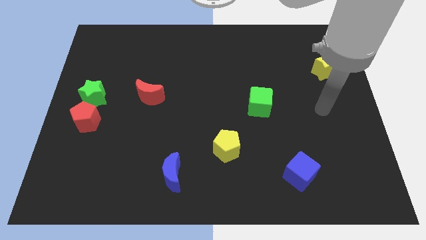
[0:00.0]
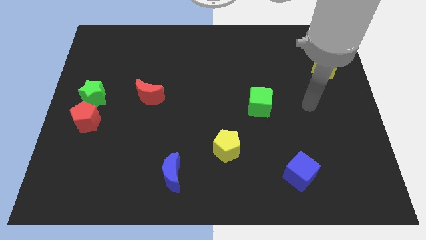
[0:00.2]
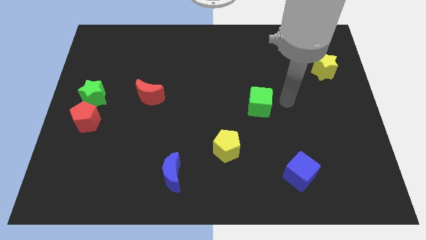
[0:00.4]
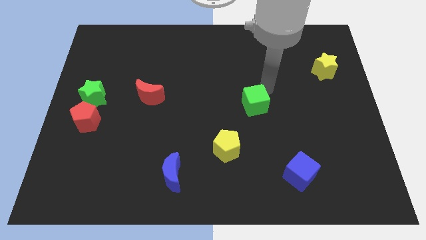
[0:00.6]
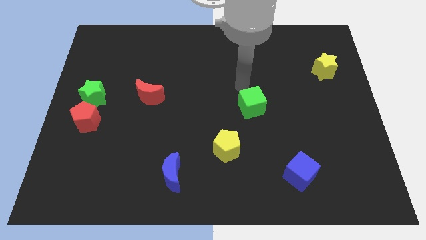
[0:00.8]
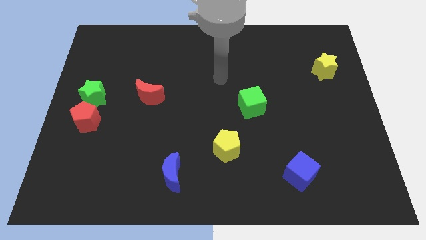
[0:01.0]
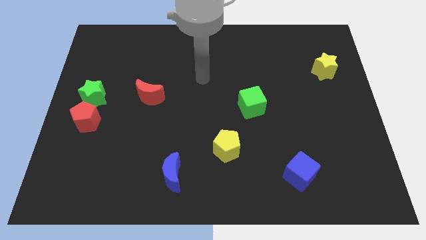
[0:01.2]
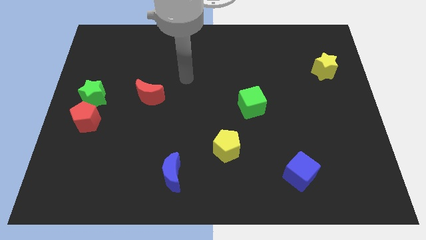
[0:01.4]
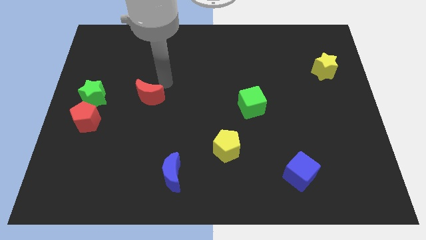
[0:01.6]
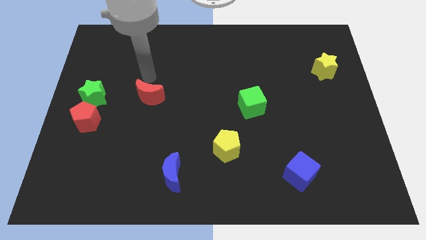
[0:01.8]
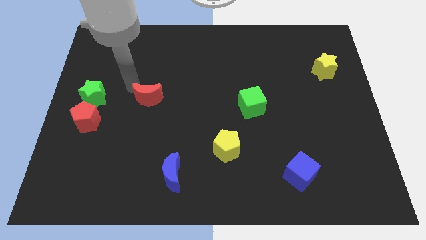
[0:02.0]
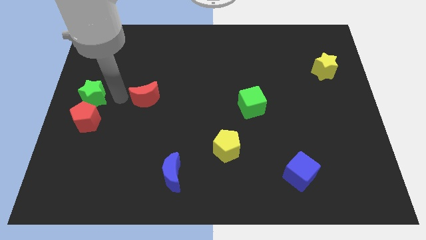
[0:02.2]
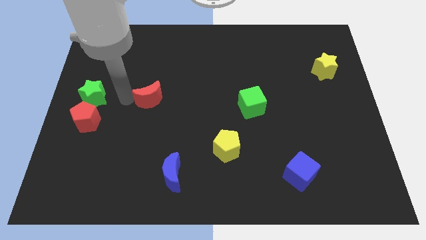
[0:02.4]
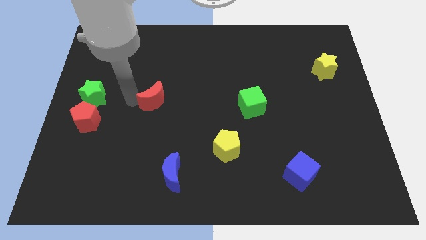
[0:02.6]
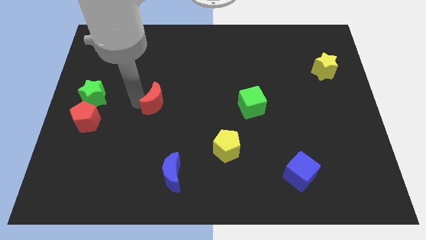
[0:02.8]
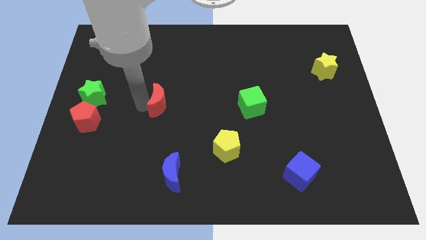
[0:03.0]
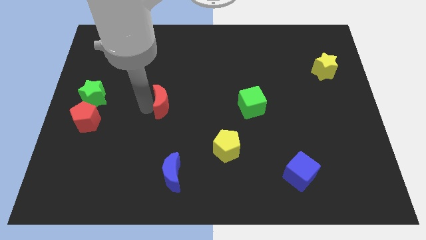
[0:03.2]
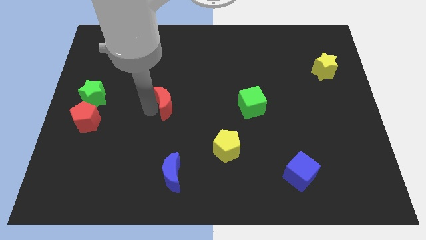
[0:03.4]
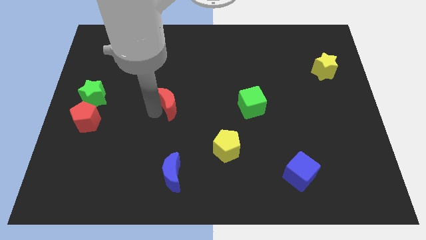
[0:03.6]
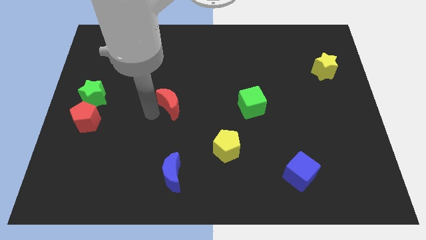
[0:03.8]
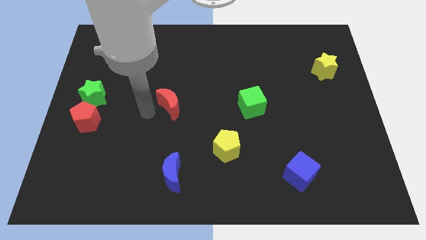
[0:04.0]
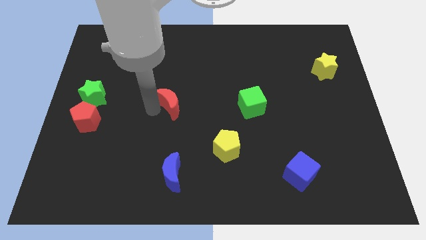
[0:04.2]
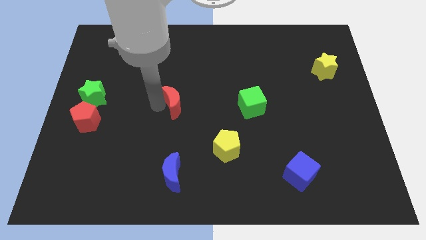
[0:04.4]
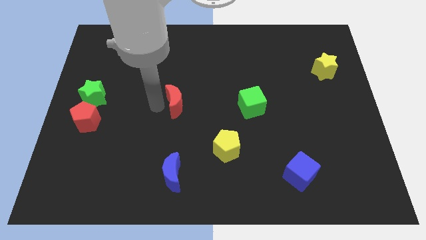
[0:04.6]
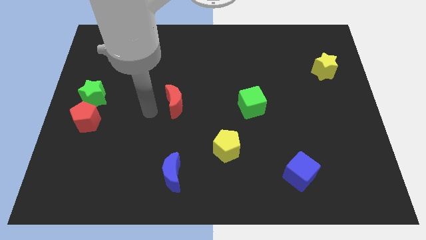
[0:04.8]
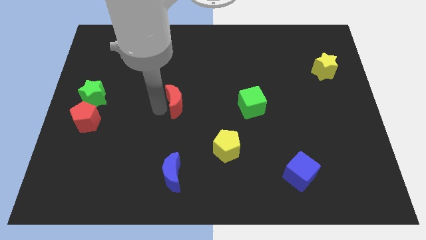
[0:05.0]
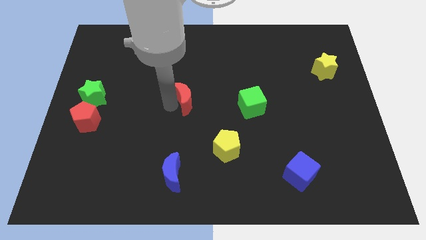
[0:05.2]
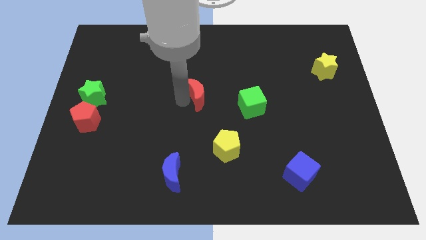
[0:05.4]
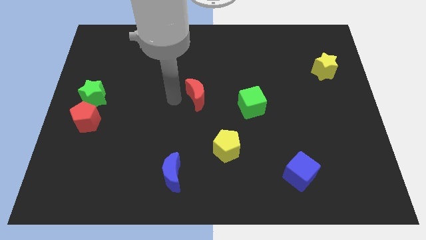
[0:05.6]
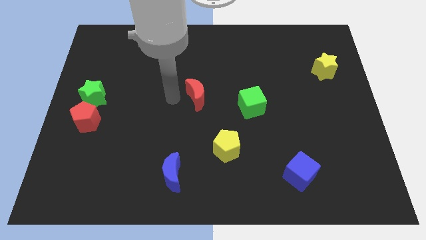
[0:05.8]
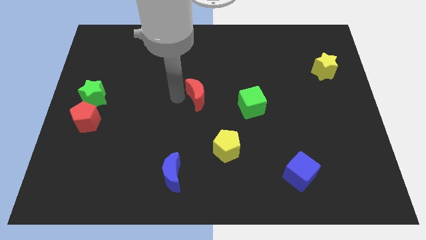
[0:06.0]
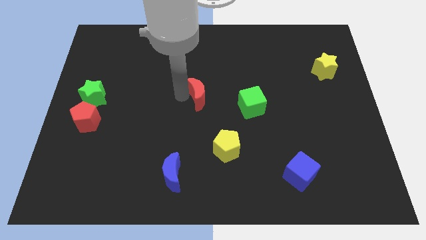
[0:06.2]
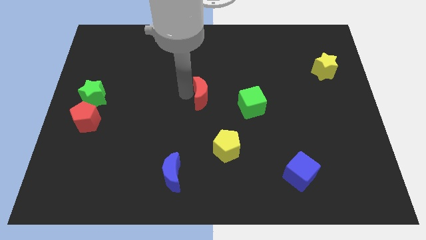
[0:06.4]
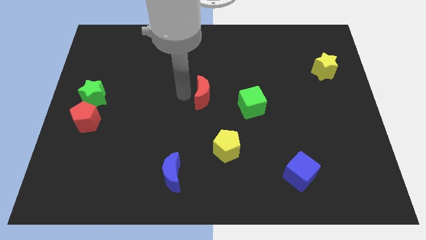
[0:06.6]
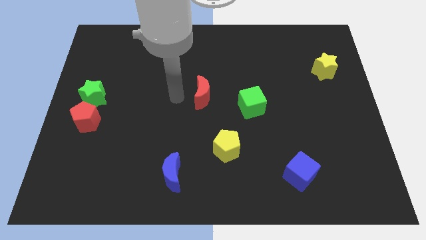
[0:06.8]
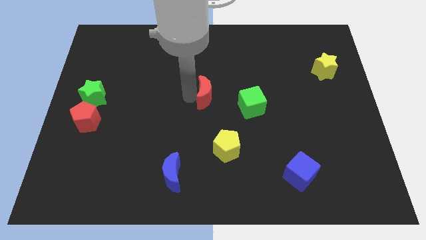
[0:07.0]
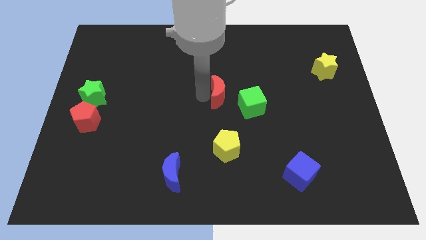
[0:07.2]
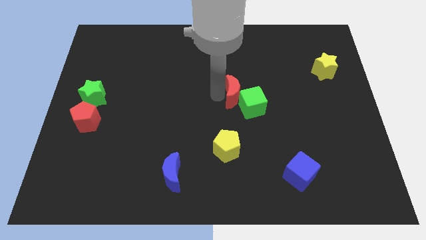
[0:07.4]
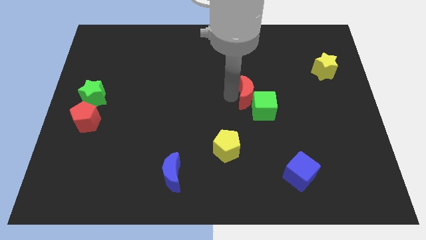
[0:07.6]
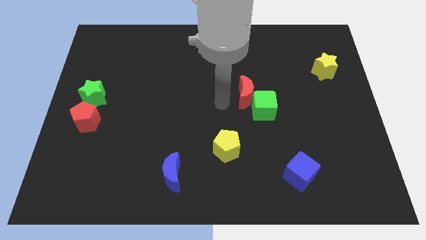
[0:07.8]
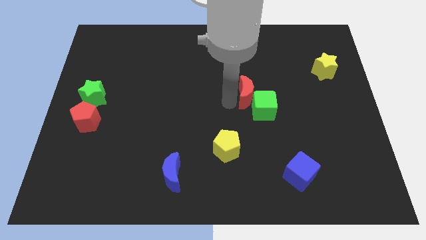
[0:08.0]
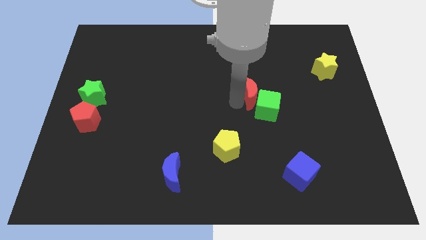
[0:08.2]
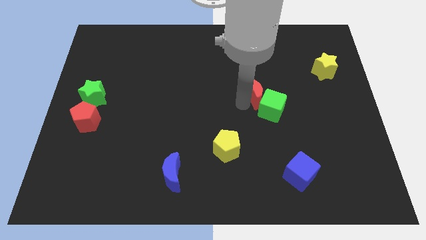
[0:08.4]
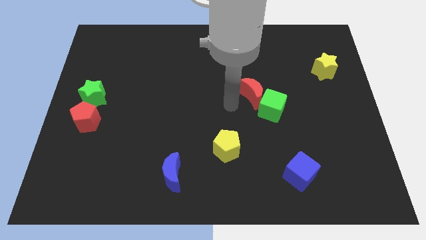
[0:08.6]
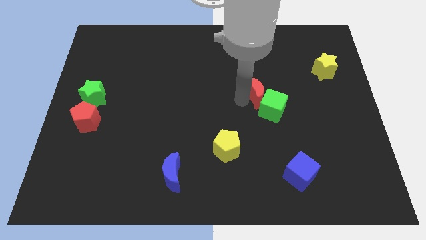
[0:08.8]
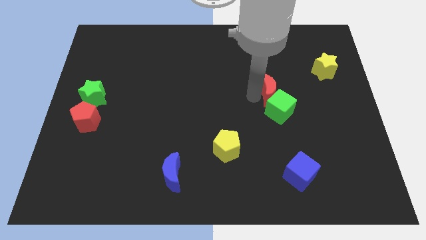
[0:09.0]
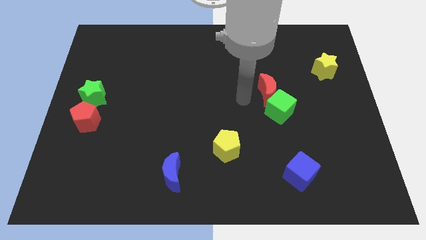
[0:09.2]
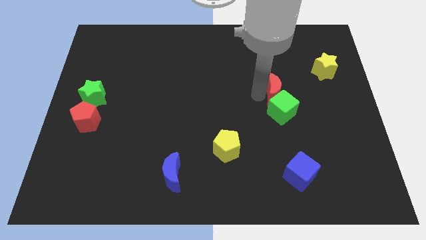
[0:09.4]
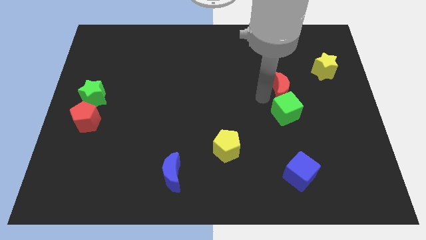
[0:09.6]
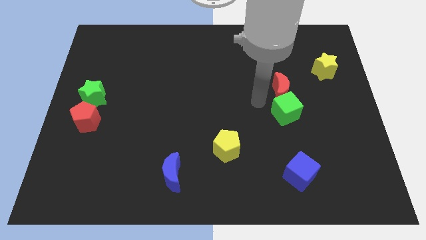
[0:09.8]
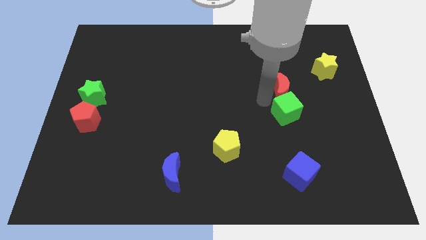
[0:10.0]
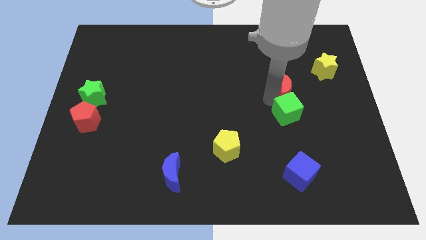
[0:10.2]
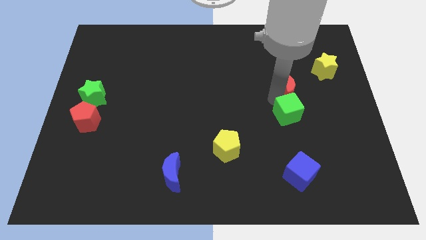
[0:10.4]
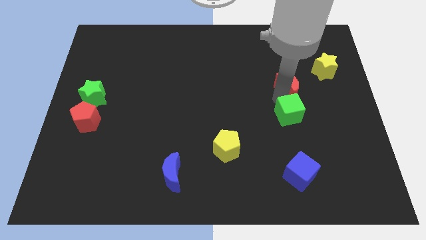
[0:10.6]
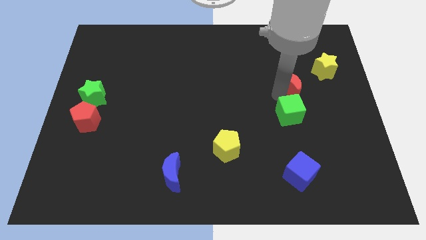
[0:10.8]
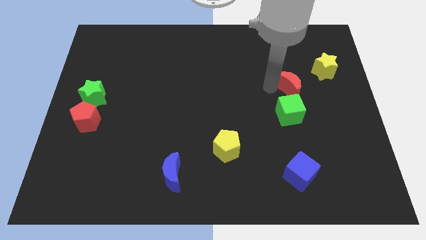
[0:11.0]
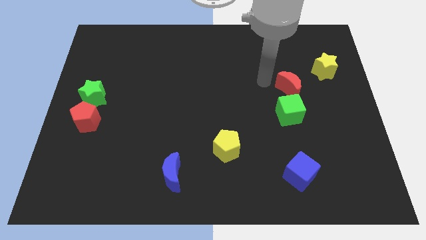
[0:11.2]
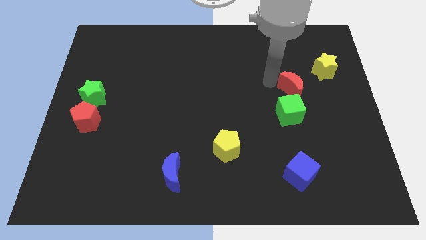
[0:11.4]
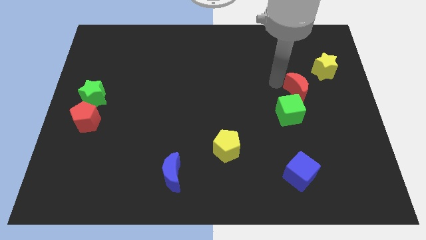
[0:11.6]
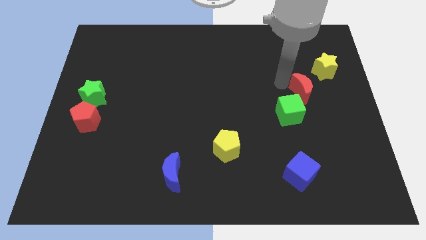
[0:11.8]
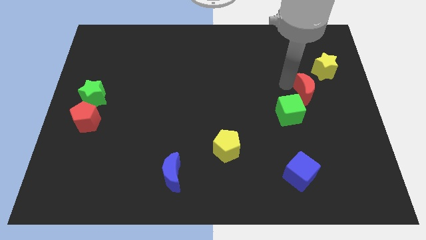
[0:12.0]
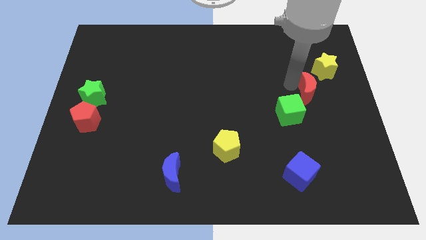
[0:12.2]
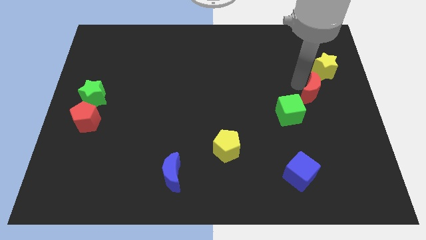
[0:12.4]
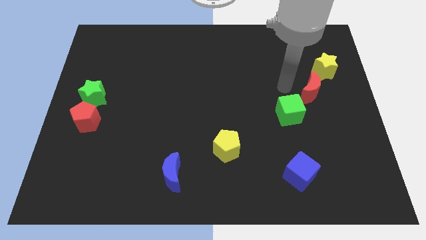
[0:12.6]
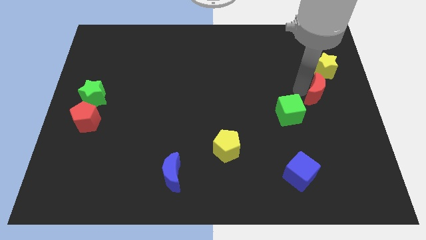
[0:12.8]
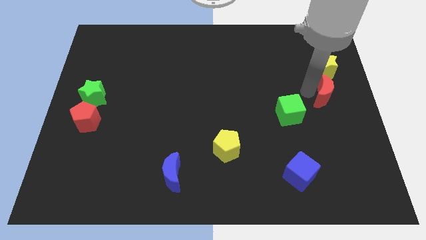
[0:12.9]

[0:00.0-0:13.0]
put the red moon to the center right

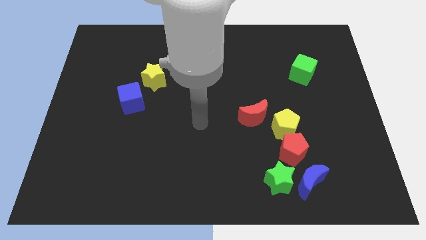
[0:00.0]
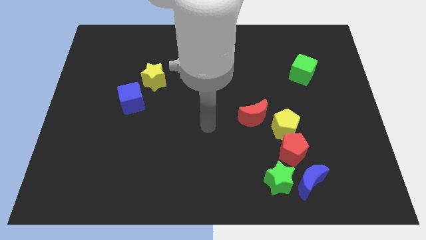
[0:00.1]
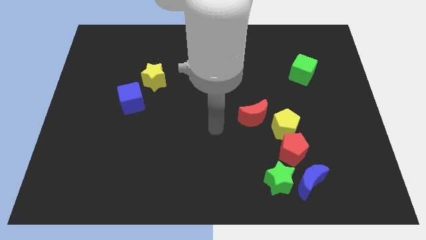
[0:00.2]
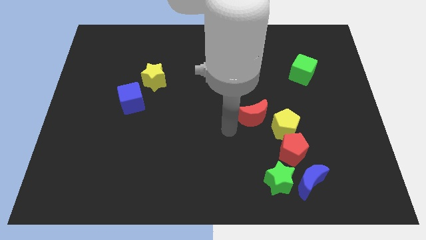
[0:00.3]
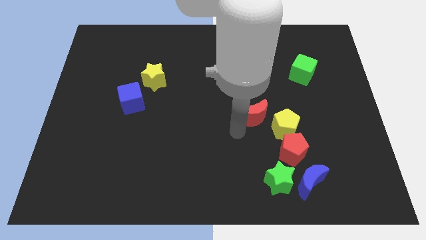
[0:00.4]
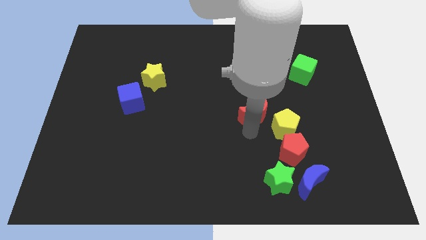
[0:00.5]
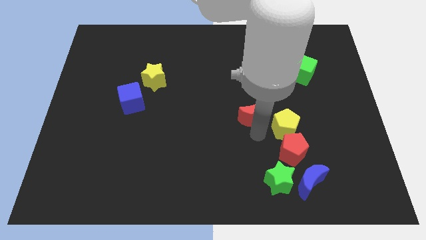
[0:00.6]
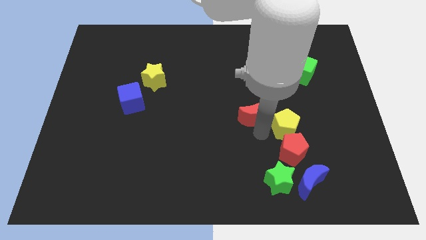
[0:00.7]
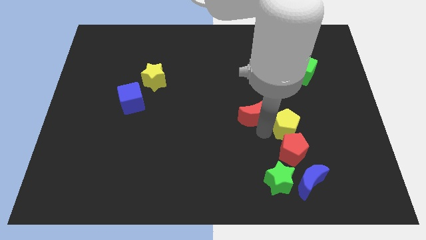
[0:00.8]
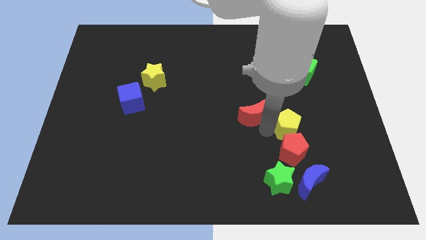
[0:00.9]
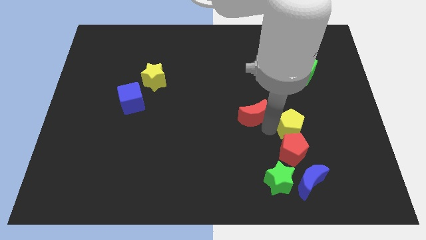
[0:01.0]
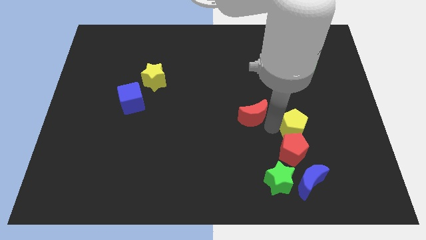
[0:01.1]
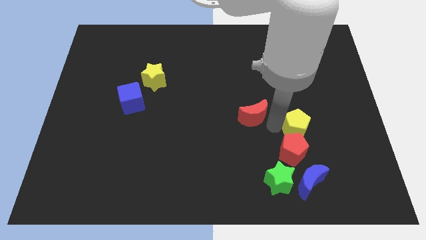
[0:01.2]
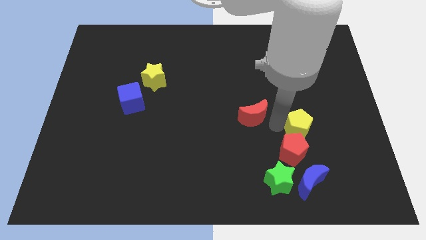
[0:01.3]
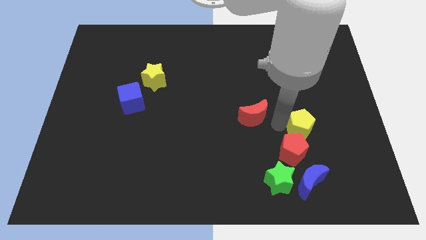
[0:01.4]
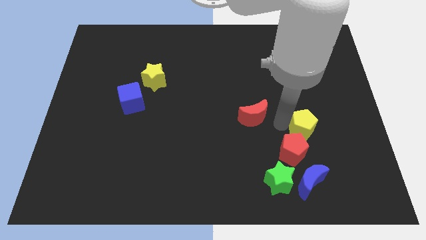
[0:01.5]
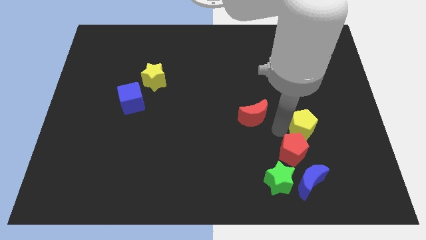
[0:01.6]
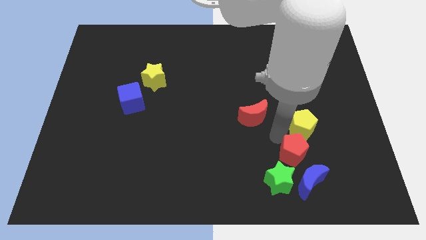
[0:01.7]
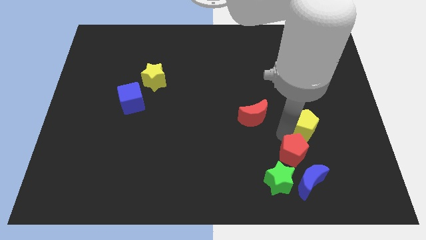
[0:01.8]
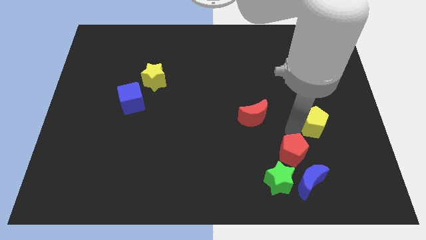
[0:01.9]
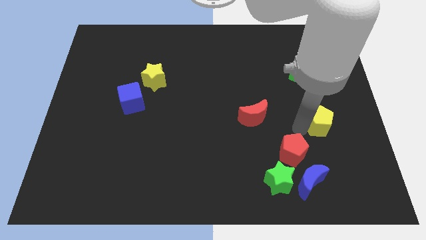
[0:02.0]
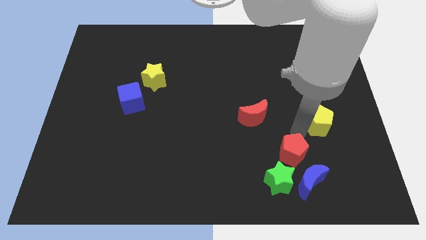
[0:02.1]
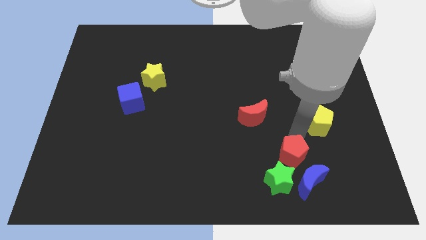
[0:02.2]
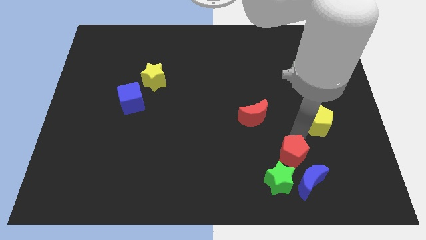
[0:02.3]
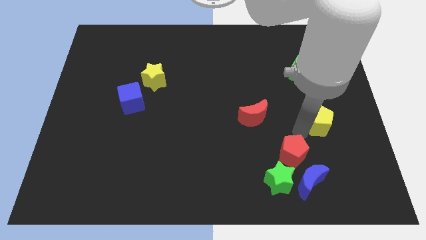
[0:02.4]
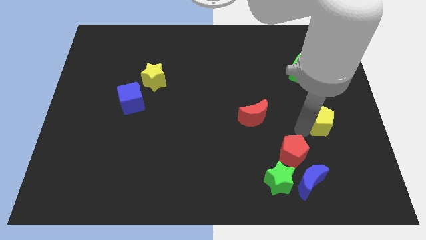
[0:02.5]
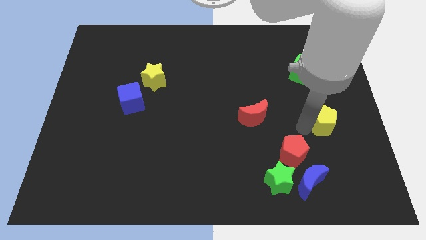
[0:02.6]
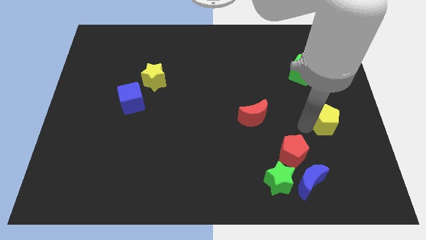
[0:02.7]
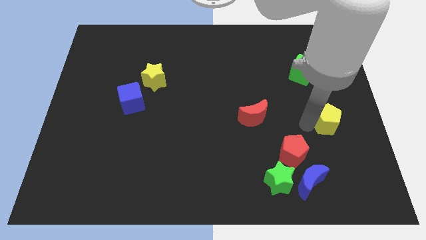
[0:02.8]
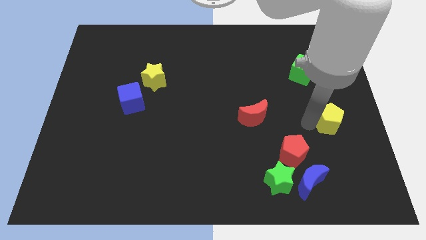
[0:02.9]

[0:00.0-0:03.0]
push the yellow pentagon to the right side of the board
